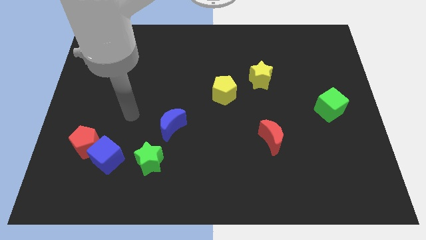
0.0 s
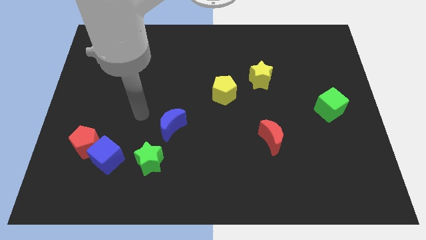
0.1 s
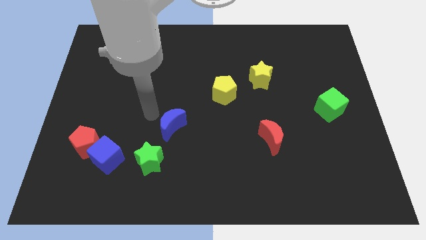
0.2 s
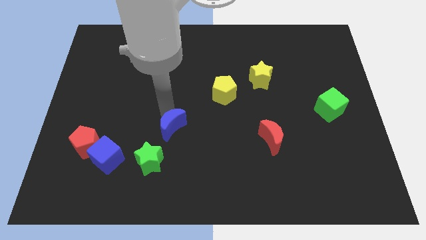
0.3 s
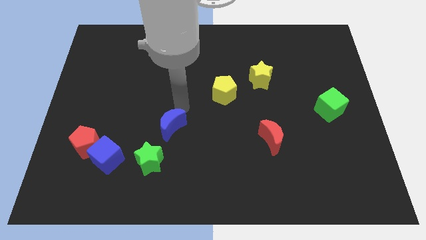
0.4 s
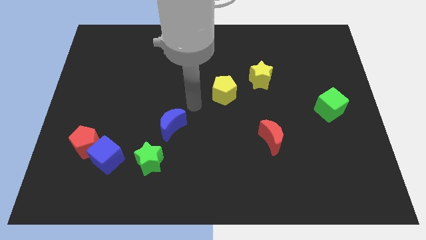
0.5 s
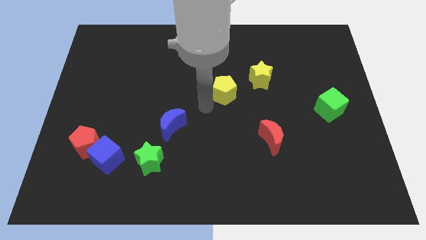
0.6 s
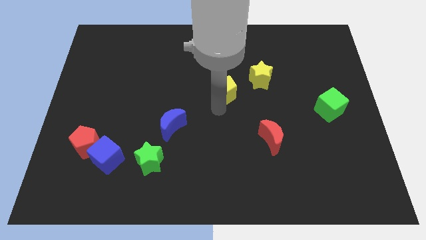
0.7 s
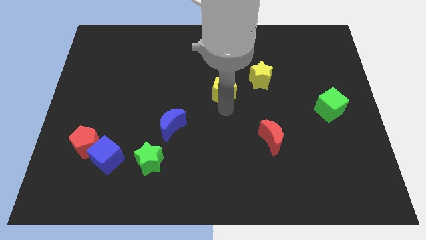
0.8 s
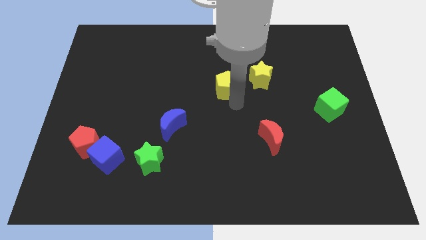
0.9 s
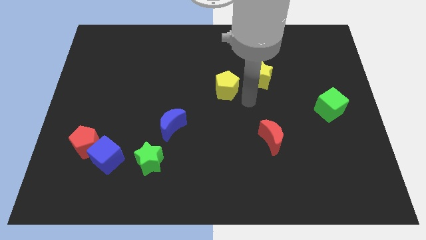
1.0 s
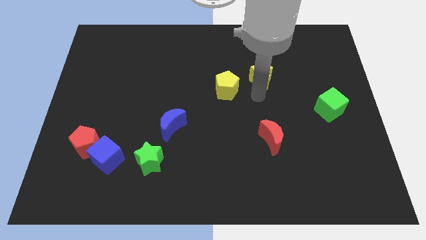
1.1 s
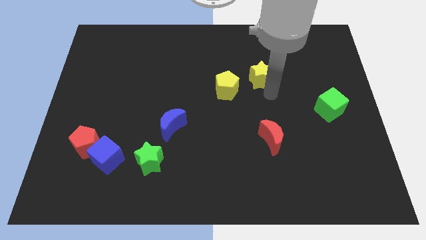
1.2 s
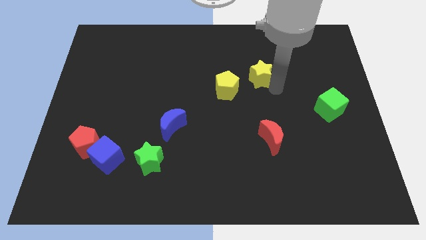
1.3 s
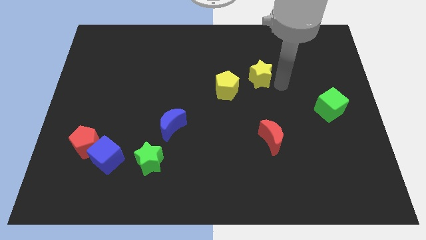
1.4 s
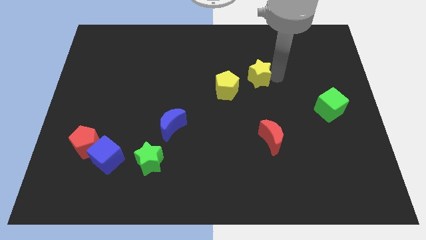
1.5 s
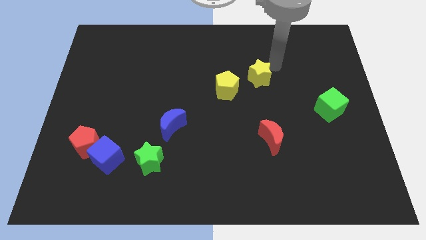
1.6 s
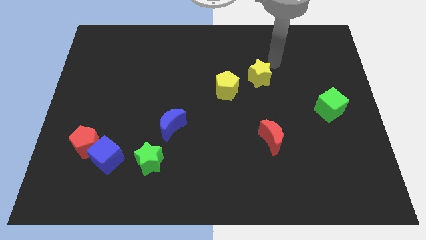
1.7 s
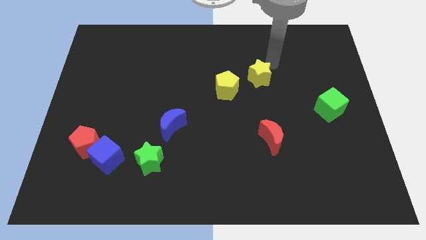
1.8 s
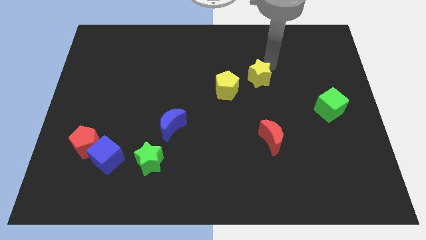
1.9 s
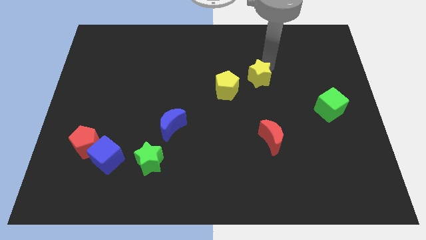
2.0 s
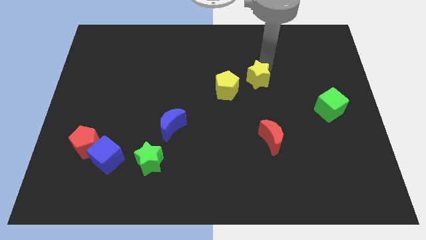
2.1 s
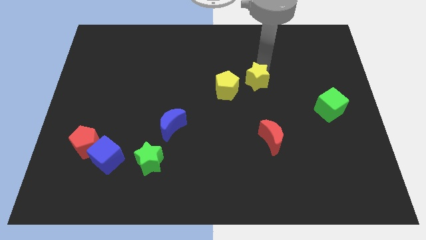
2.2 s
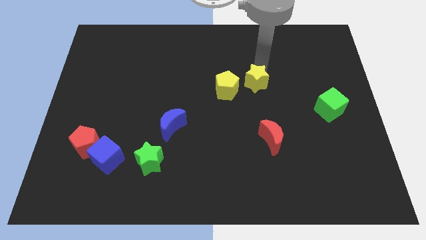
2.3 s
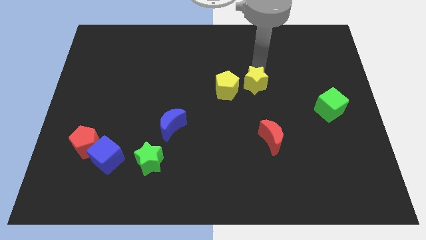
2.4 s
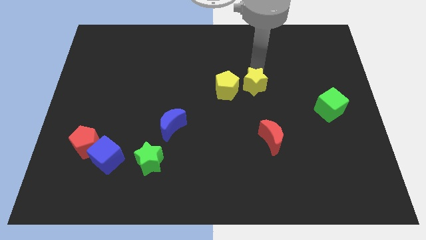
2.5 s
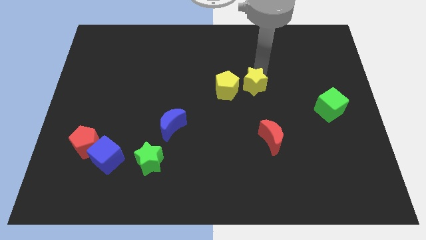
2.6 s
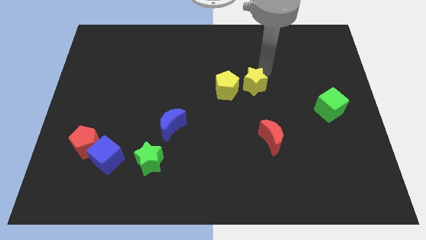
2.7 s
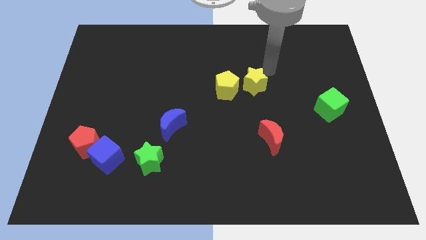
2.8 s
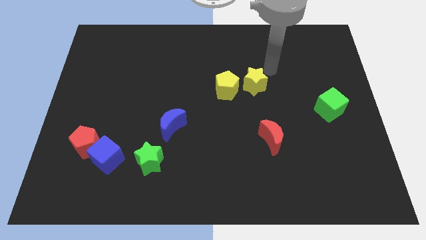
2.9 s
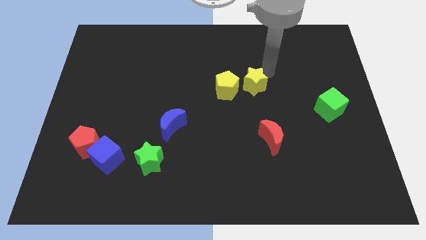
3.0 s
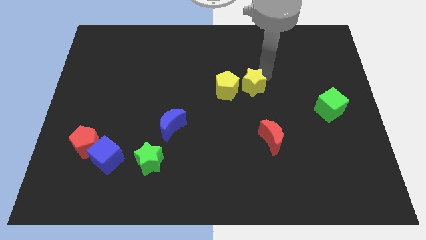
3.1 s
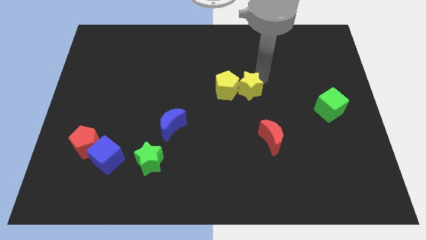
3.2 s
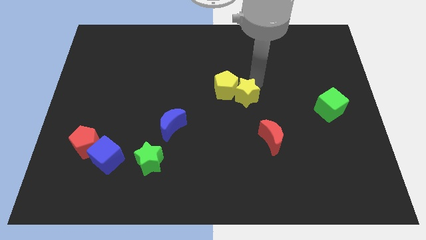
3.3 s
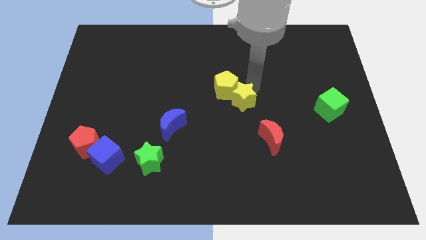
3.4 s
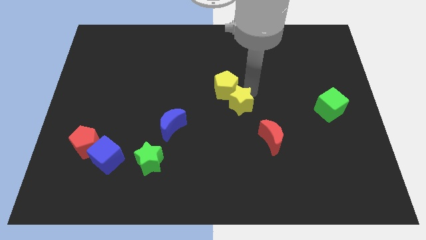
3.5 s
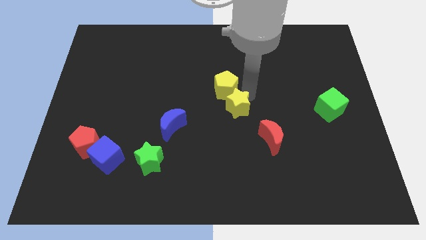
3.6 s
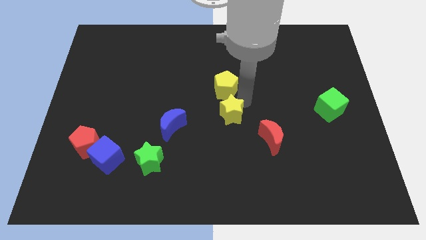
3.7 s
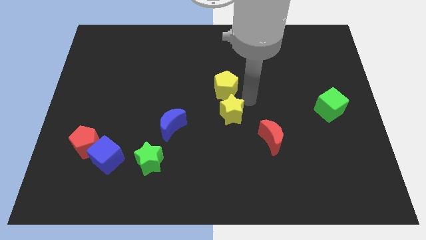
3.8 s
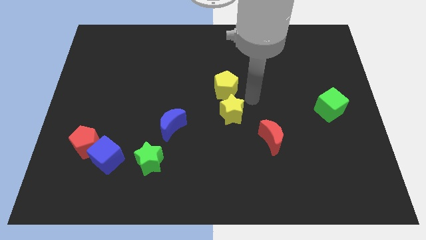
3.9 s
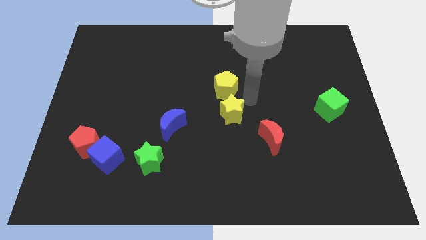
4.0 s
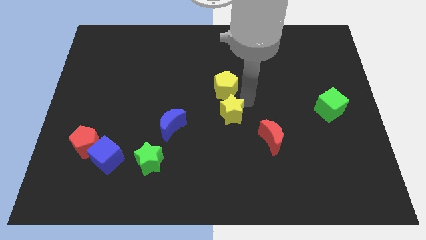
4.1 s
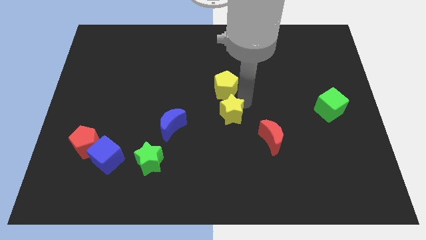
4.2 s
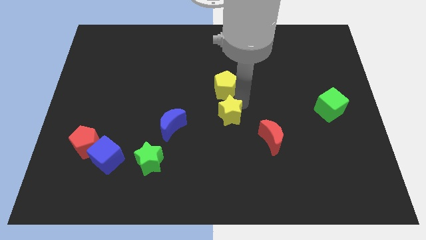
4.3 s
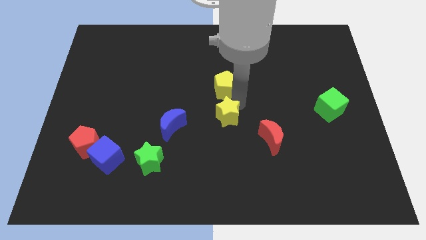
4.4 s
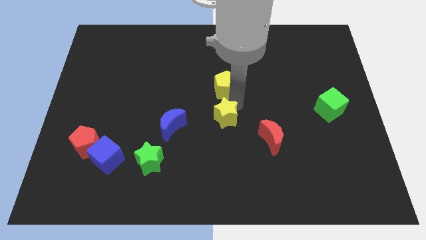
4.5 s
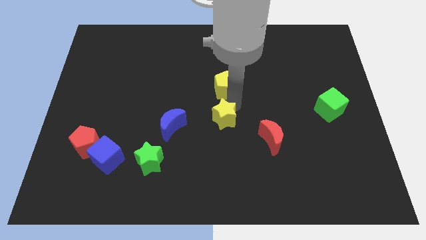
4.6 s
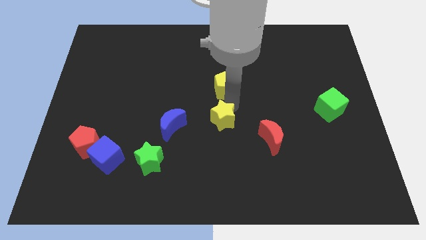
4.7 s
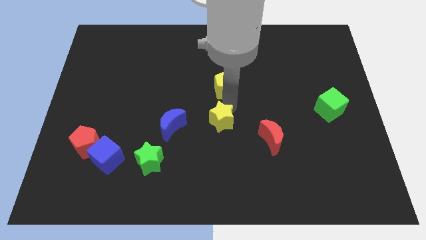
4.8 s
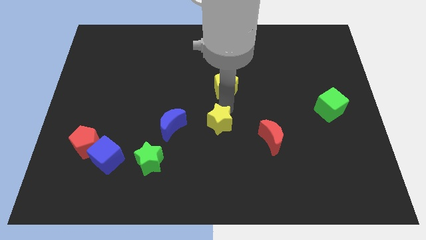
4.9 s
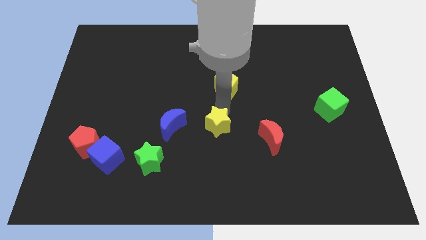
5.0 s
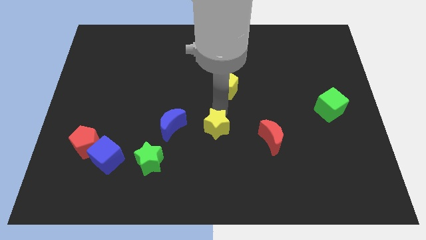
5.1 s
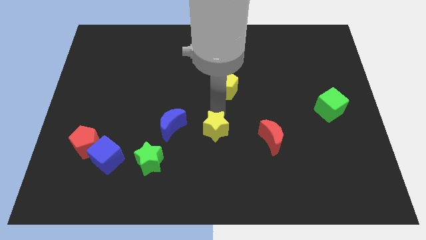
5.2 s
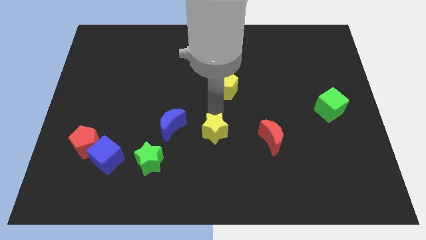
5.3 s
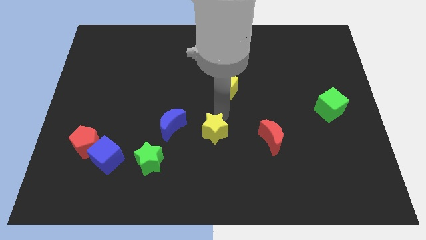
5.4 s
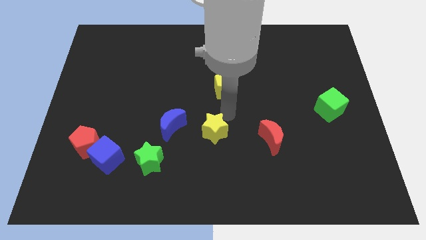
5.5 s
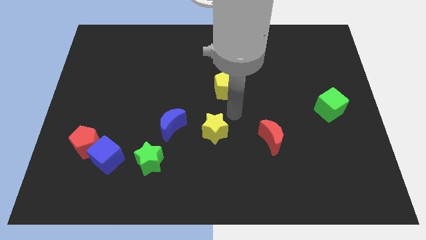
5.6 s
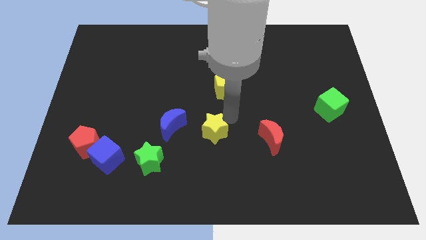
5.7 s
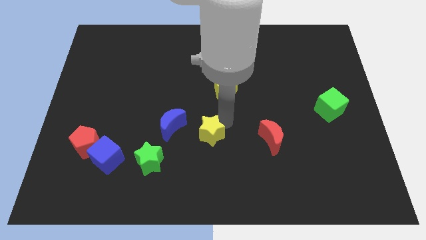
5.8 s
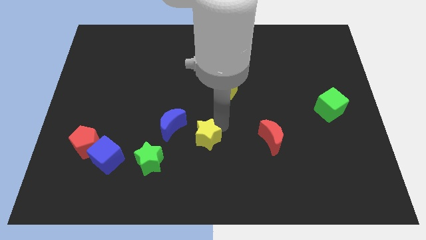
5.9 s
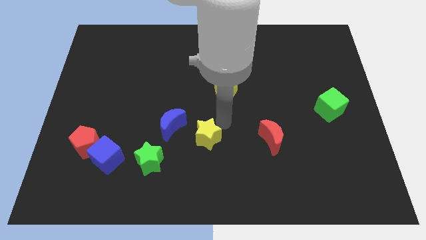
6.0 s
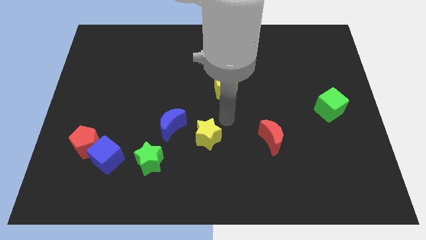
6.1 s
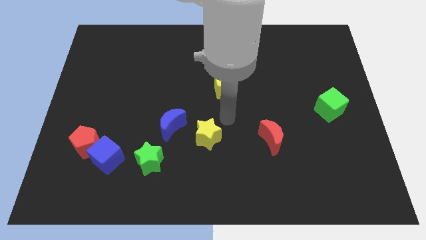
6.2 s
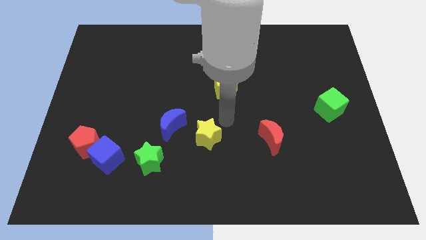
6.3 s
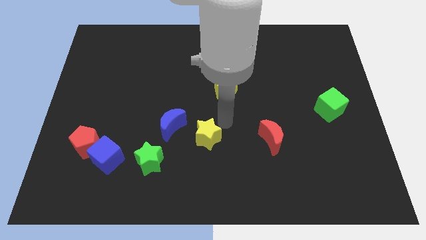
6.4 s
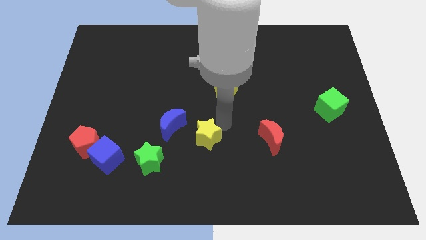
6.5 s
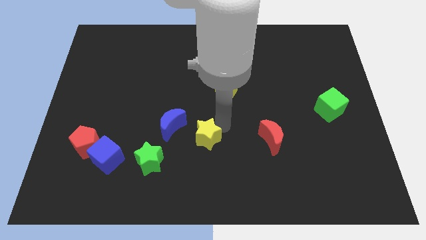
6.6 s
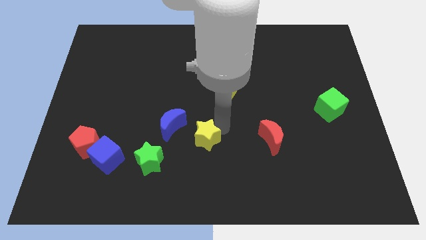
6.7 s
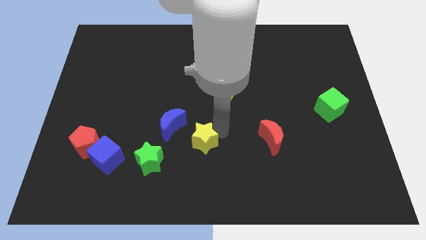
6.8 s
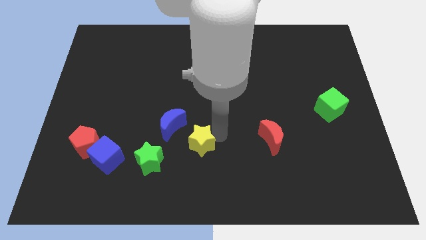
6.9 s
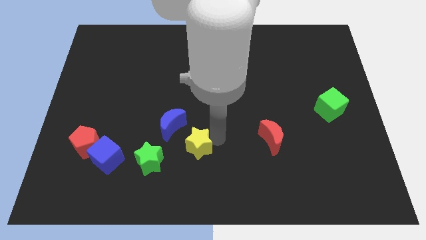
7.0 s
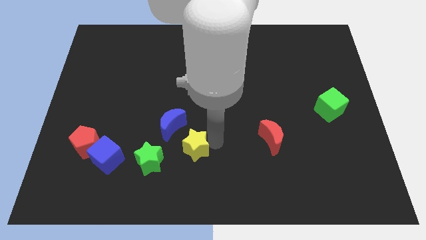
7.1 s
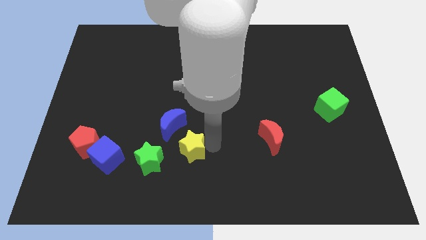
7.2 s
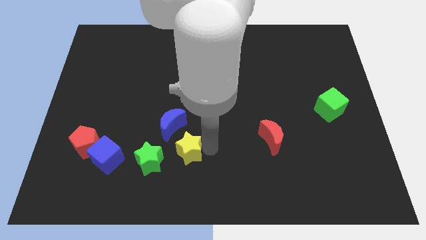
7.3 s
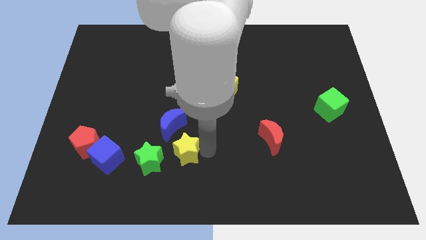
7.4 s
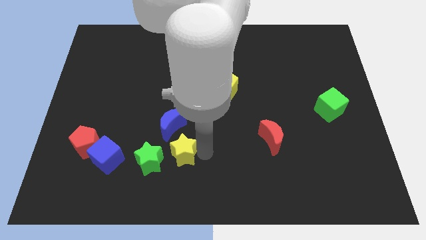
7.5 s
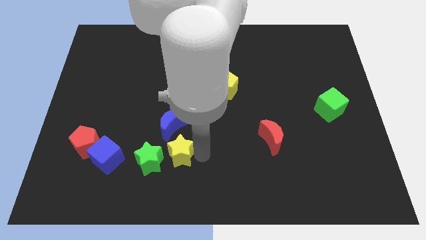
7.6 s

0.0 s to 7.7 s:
slide the yellow star to the right of the blue cube
